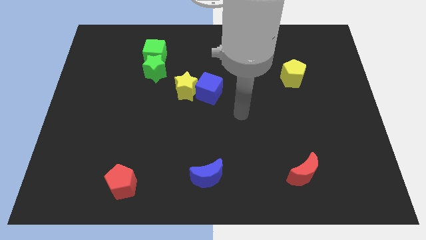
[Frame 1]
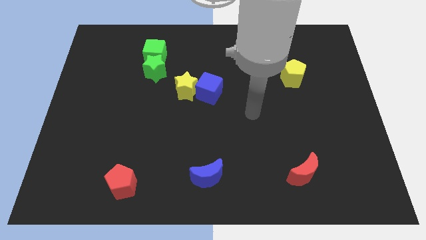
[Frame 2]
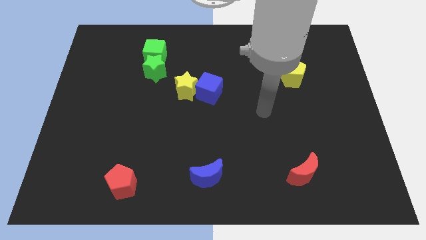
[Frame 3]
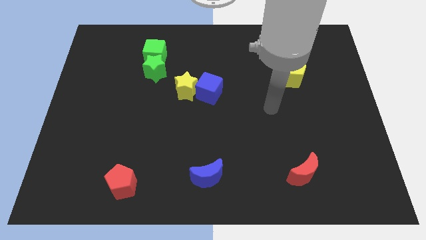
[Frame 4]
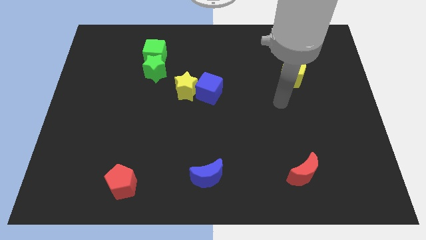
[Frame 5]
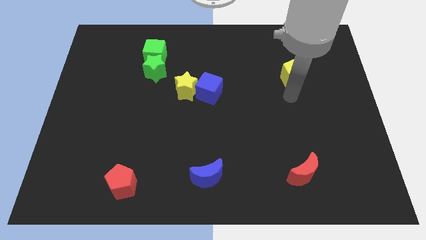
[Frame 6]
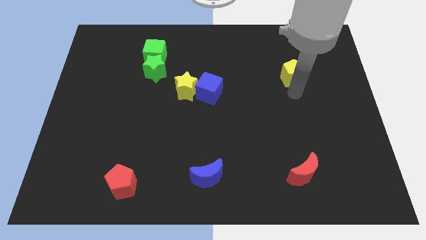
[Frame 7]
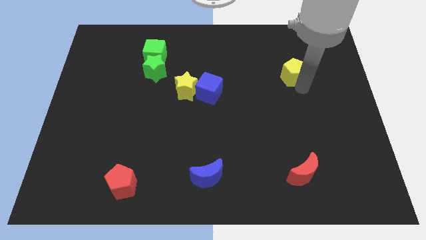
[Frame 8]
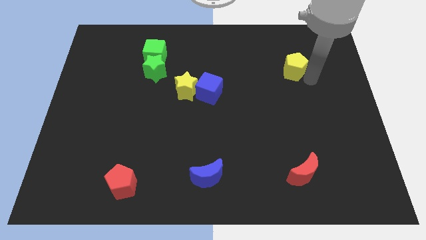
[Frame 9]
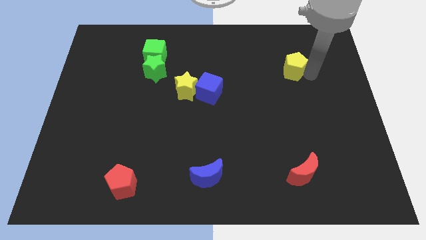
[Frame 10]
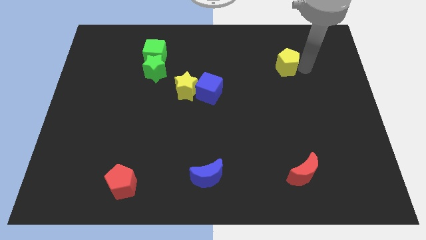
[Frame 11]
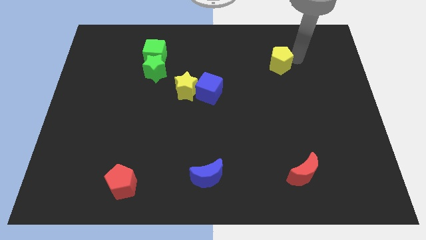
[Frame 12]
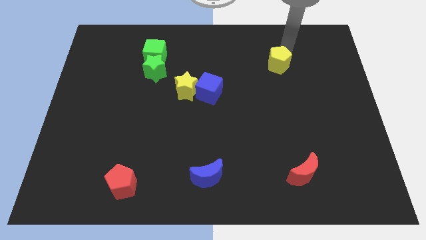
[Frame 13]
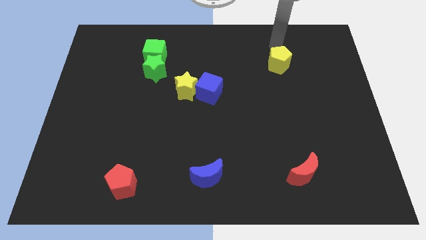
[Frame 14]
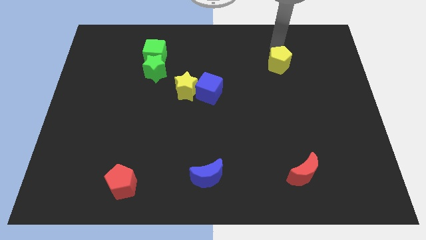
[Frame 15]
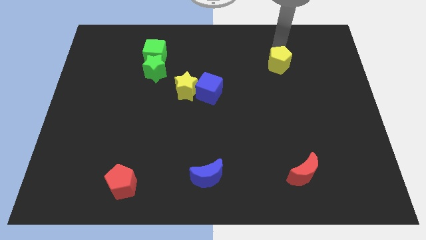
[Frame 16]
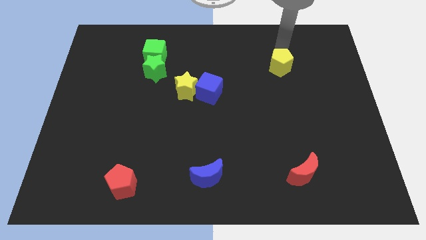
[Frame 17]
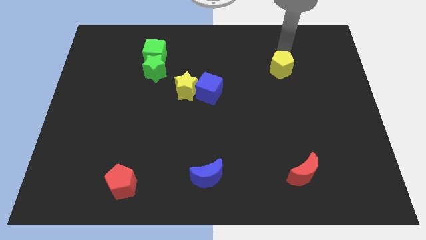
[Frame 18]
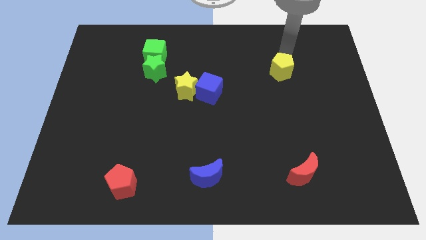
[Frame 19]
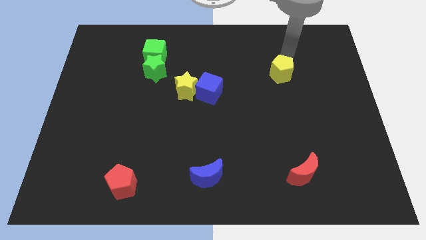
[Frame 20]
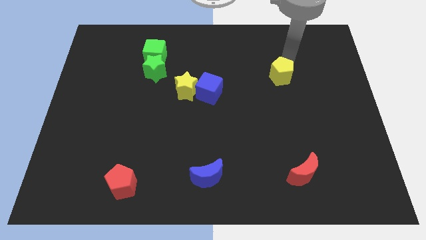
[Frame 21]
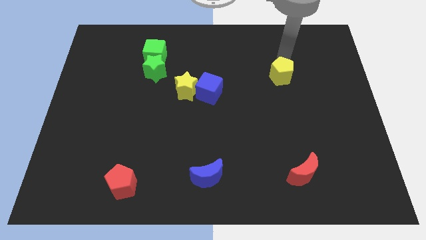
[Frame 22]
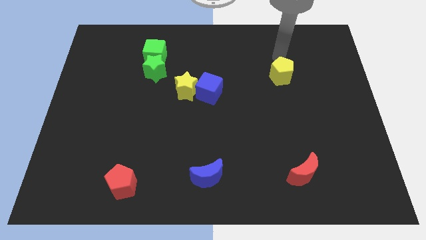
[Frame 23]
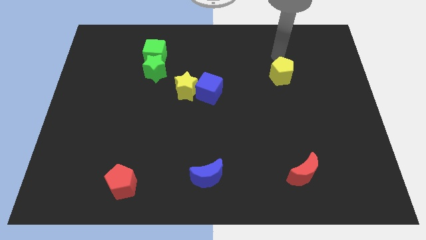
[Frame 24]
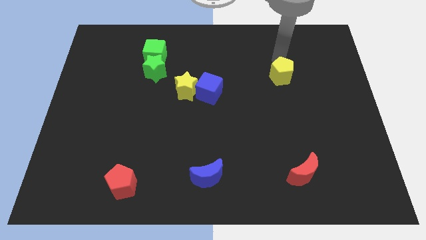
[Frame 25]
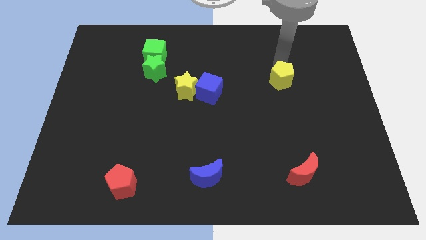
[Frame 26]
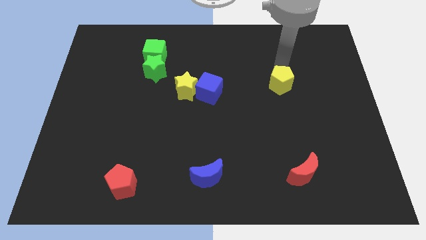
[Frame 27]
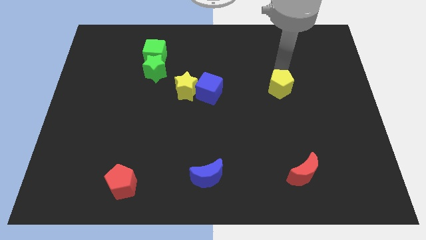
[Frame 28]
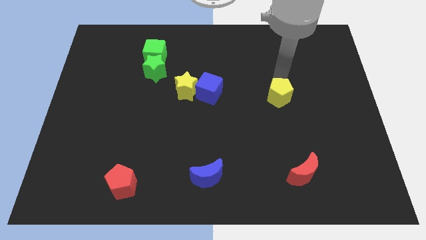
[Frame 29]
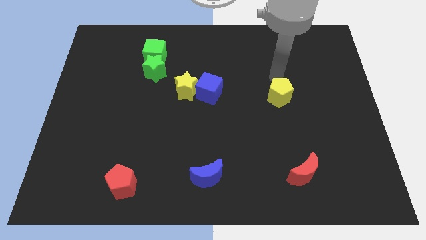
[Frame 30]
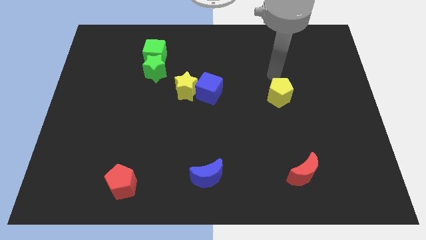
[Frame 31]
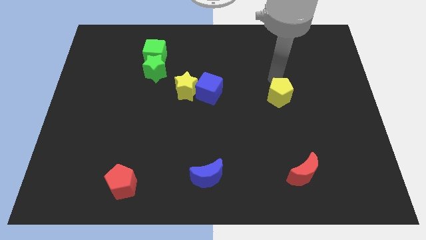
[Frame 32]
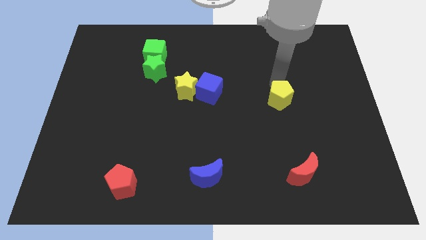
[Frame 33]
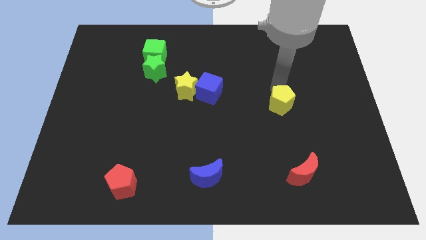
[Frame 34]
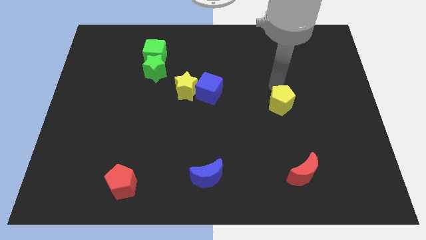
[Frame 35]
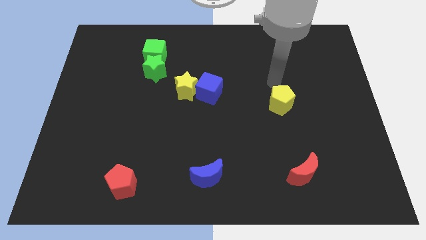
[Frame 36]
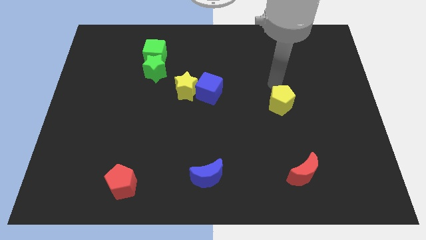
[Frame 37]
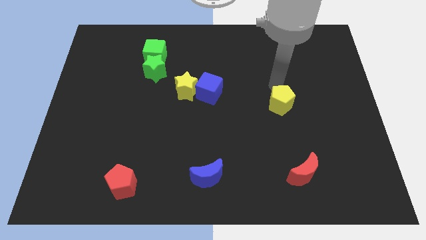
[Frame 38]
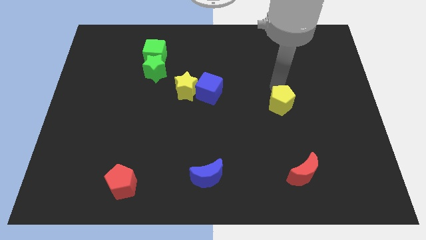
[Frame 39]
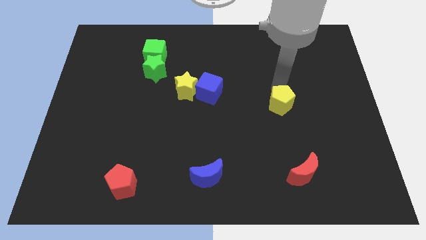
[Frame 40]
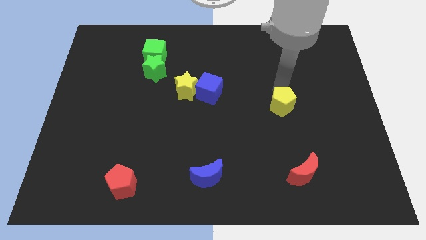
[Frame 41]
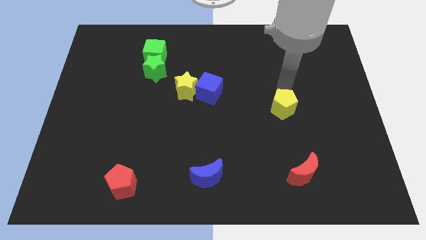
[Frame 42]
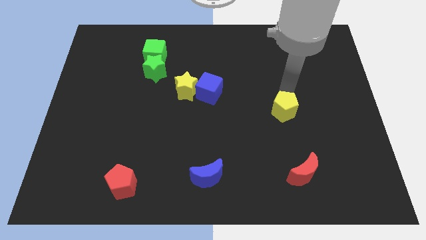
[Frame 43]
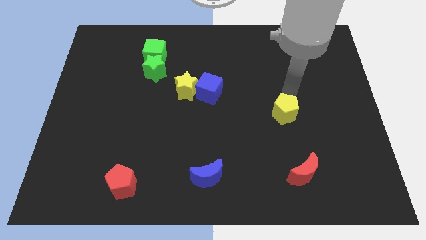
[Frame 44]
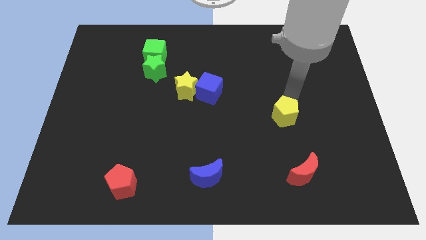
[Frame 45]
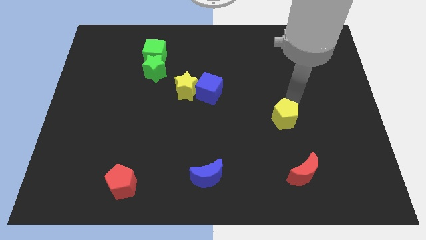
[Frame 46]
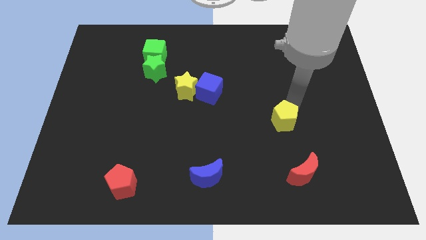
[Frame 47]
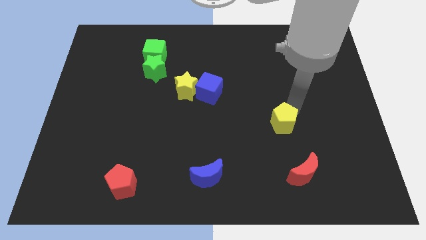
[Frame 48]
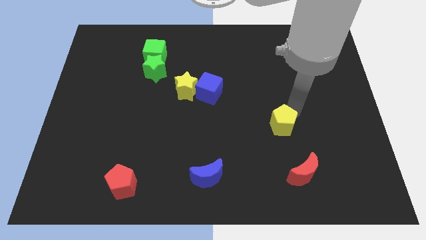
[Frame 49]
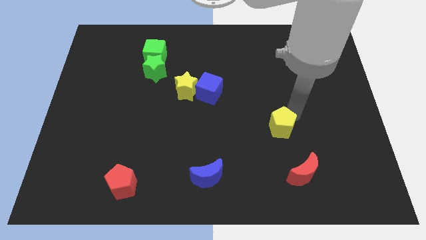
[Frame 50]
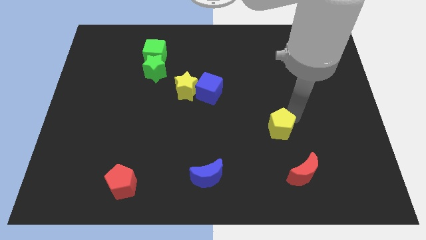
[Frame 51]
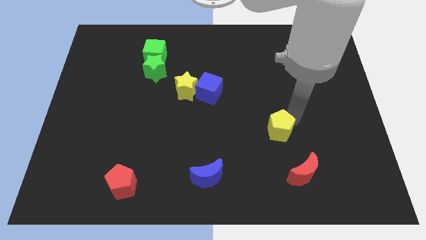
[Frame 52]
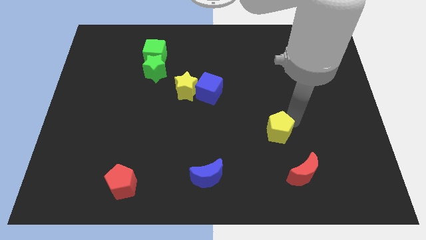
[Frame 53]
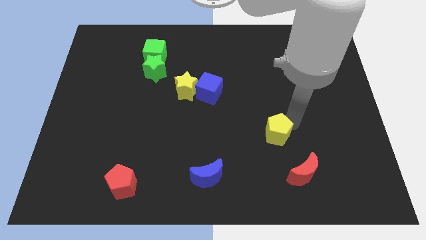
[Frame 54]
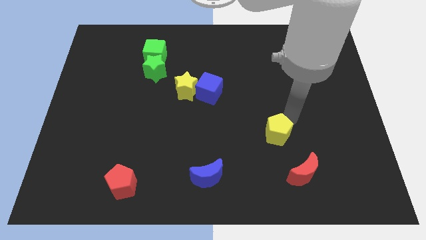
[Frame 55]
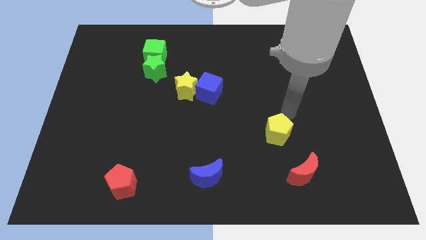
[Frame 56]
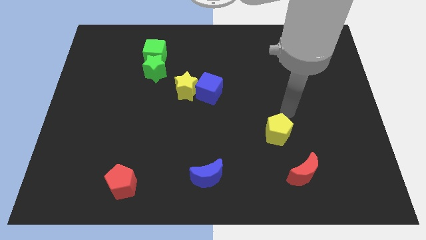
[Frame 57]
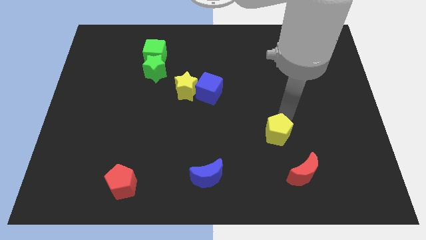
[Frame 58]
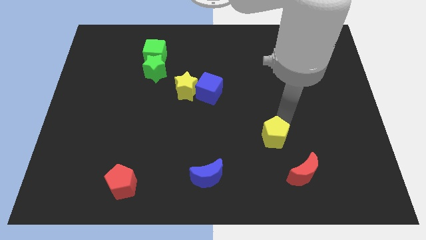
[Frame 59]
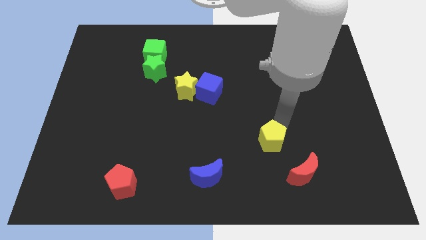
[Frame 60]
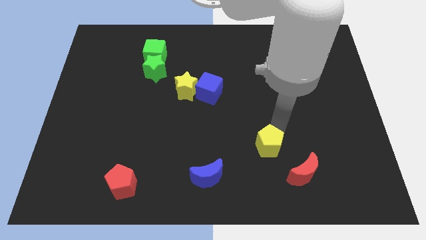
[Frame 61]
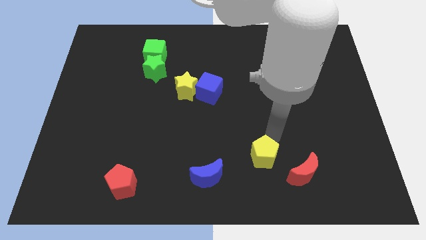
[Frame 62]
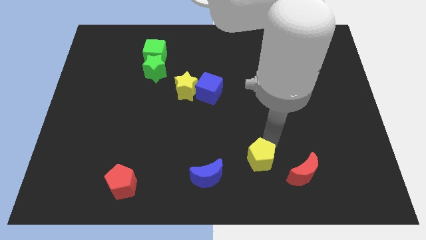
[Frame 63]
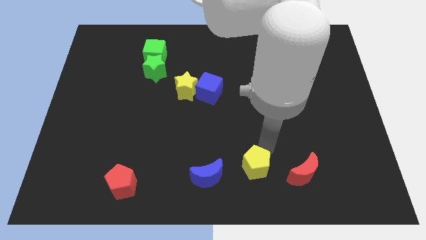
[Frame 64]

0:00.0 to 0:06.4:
push the yellow pentagon to the bottom
